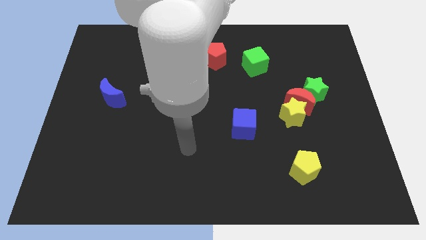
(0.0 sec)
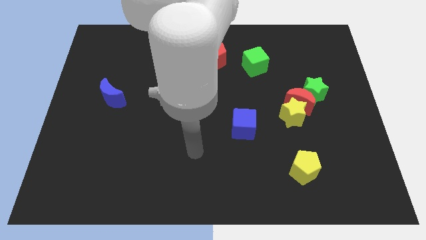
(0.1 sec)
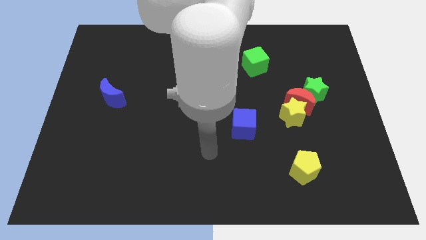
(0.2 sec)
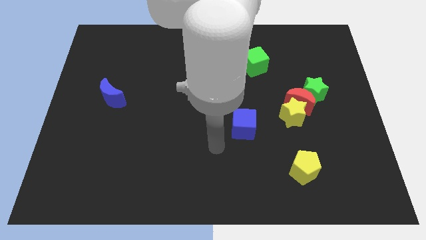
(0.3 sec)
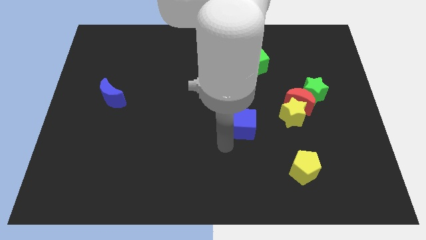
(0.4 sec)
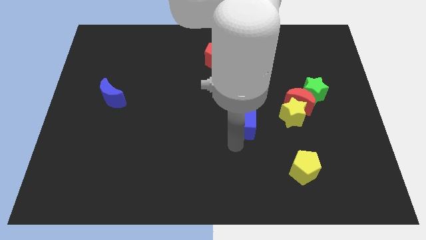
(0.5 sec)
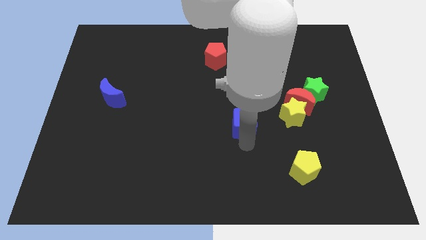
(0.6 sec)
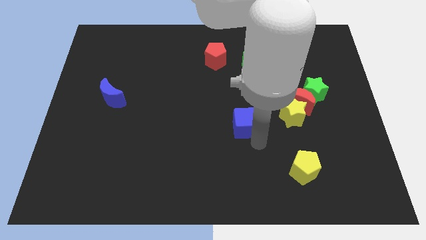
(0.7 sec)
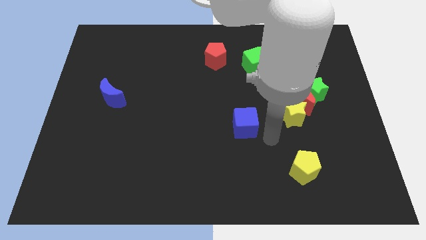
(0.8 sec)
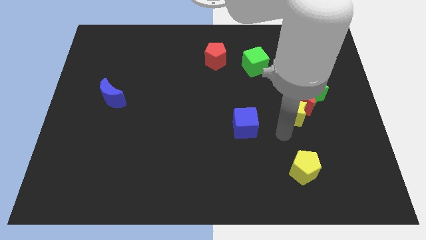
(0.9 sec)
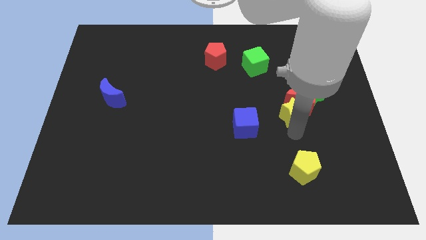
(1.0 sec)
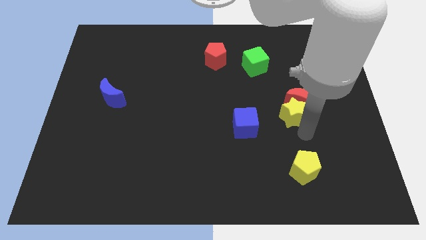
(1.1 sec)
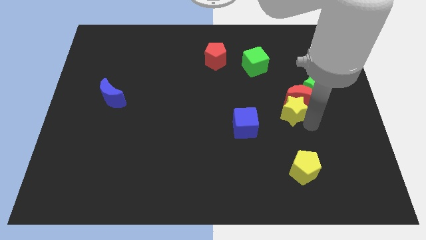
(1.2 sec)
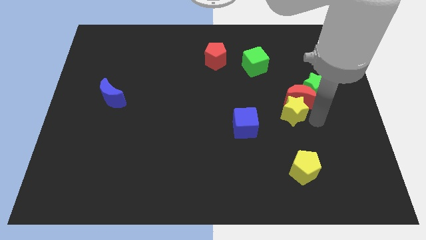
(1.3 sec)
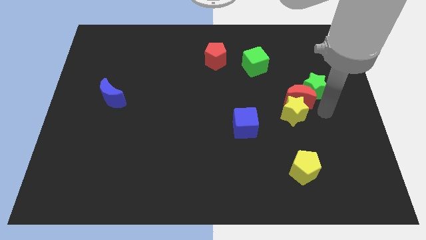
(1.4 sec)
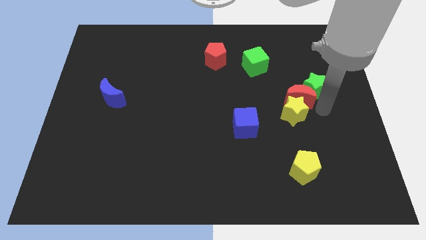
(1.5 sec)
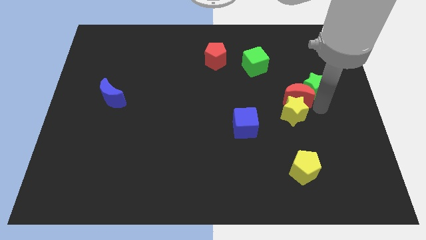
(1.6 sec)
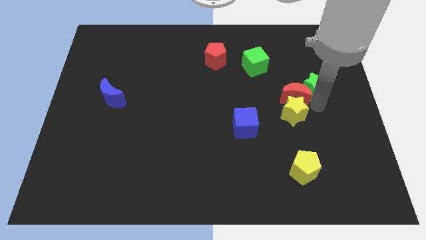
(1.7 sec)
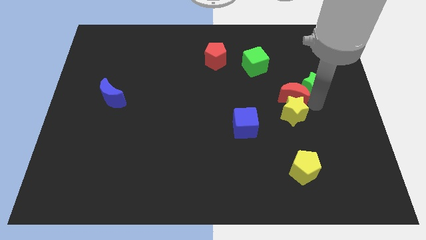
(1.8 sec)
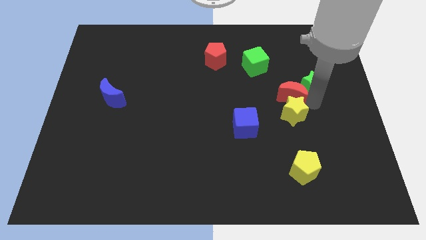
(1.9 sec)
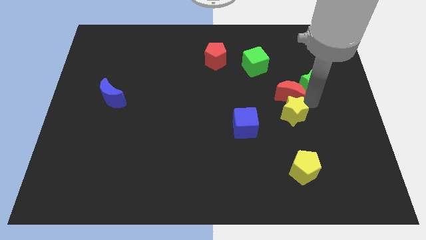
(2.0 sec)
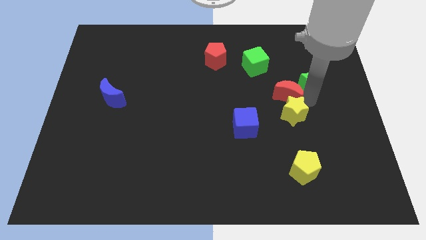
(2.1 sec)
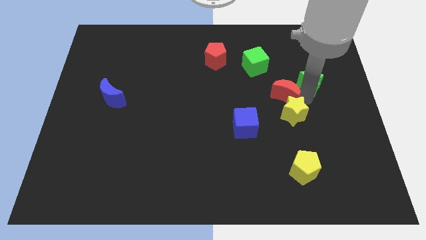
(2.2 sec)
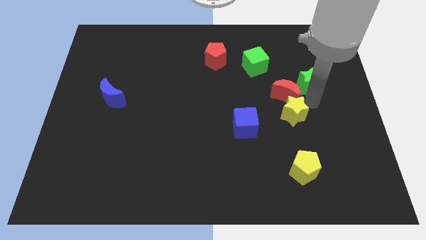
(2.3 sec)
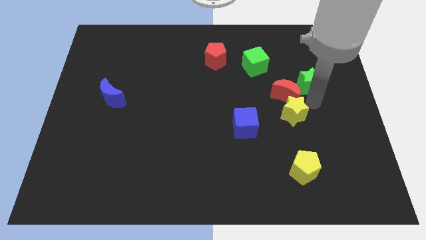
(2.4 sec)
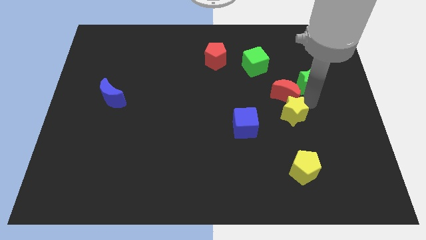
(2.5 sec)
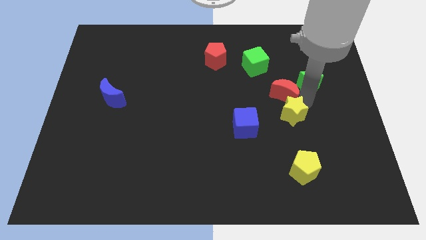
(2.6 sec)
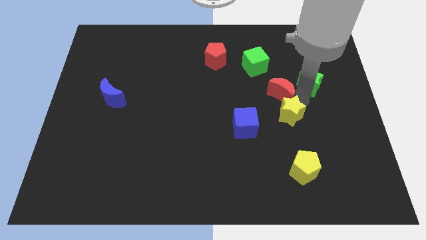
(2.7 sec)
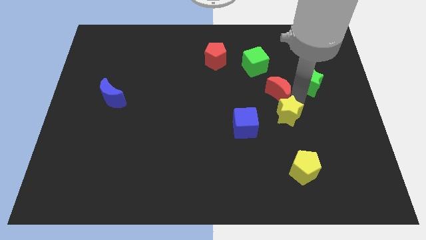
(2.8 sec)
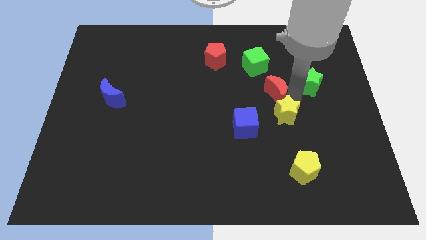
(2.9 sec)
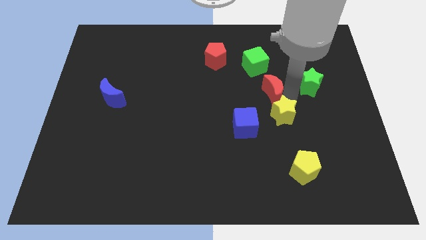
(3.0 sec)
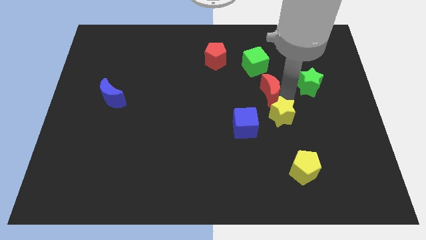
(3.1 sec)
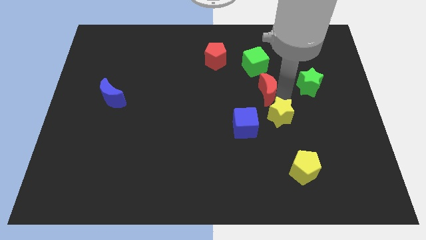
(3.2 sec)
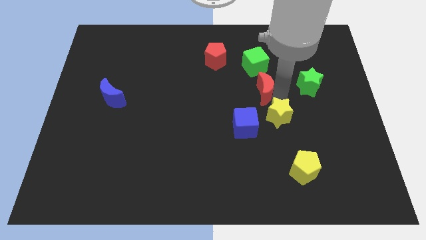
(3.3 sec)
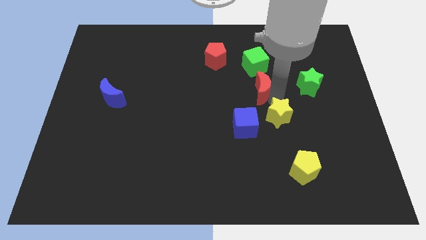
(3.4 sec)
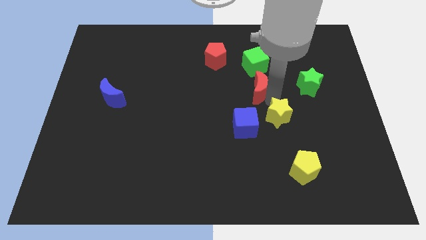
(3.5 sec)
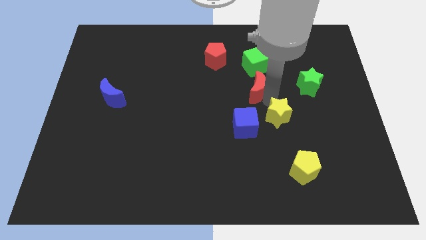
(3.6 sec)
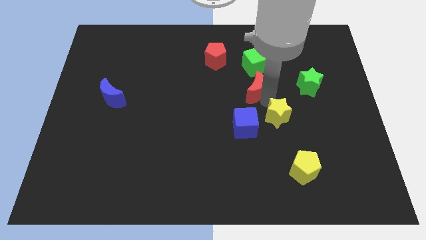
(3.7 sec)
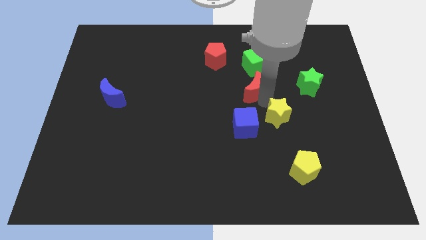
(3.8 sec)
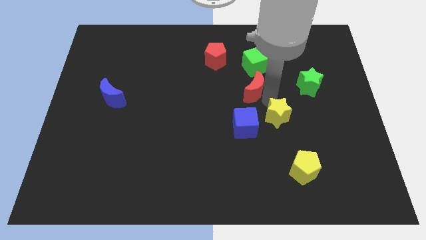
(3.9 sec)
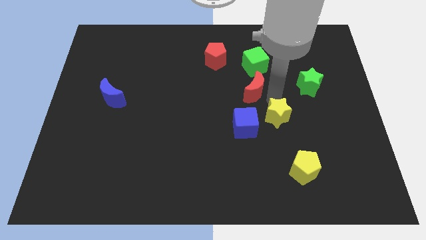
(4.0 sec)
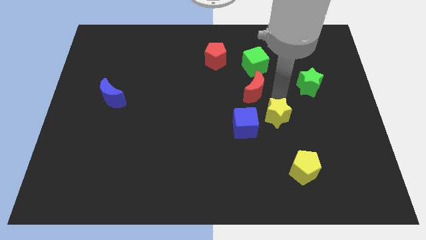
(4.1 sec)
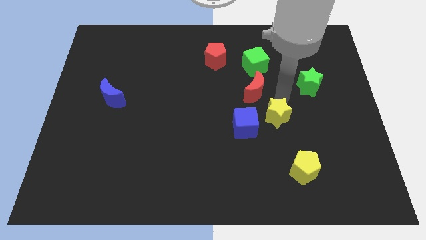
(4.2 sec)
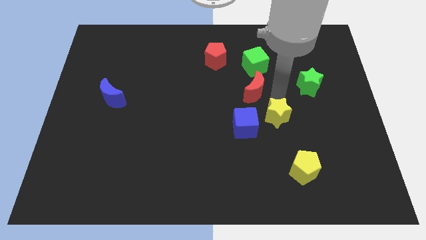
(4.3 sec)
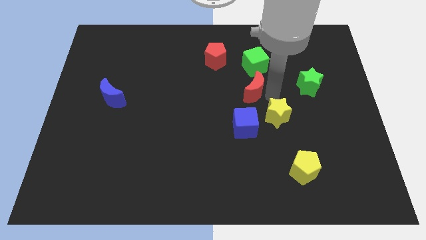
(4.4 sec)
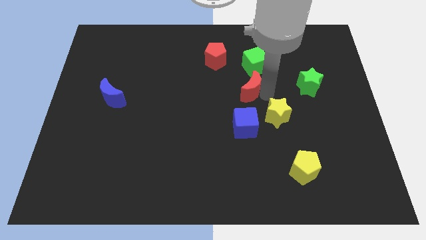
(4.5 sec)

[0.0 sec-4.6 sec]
separate the red moon from the yellow star and green star

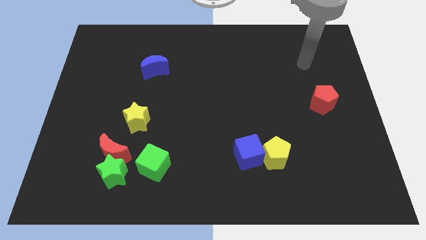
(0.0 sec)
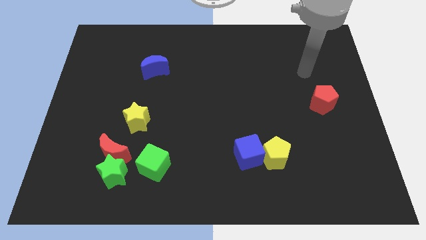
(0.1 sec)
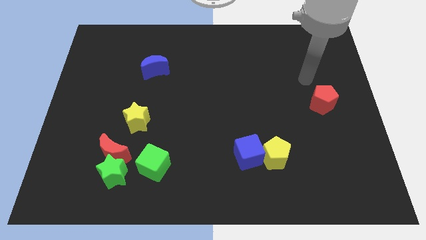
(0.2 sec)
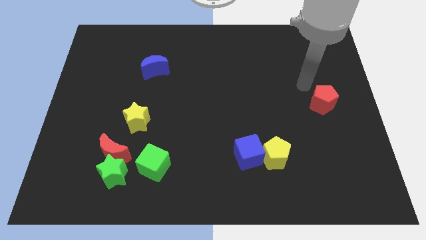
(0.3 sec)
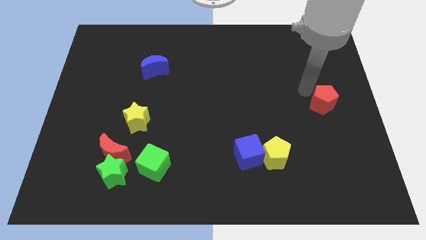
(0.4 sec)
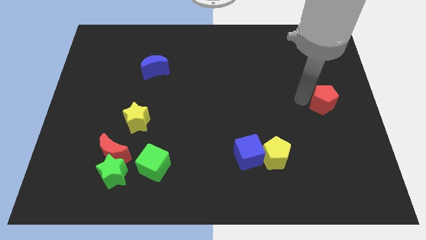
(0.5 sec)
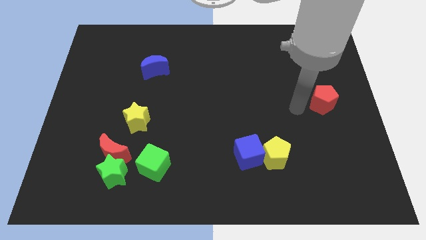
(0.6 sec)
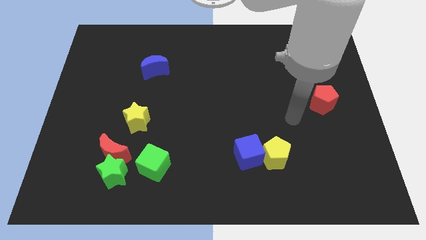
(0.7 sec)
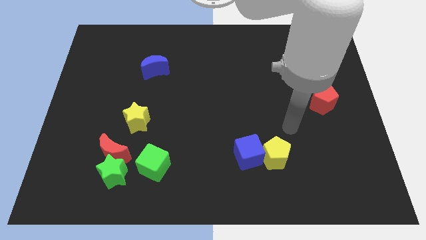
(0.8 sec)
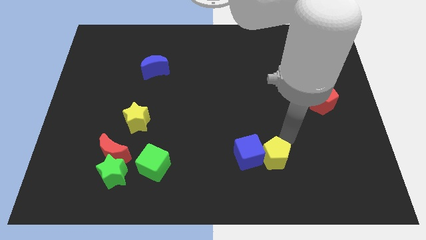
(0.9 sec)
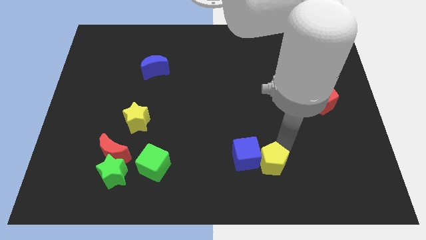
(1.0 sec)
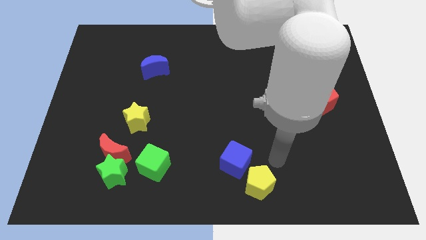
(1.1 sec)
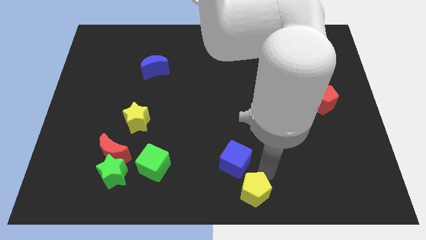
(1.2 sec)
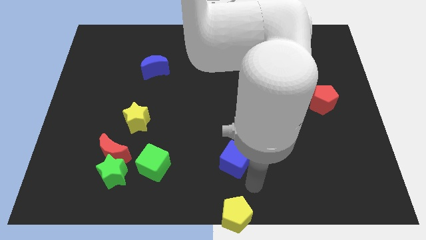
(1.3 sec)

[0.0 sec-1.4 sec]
pull the blue cube apart from the yellow pentagon

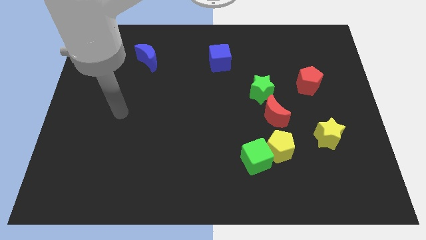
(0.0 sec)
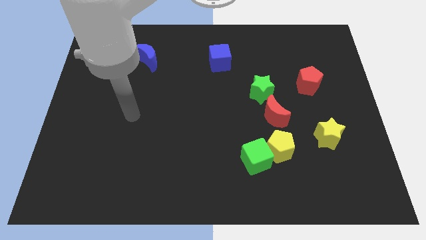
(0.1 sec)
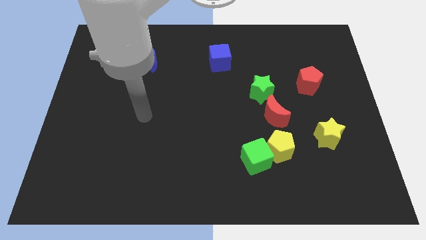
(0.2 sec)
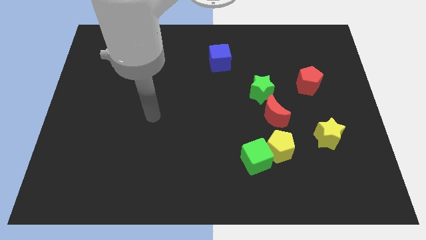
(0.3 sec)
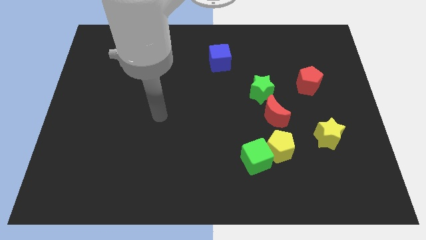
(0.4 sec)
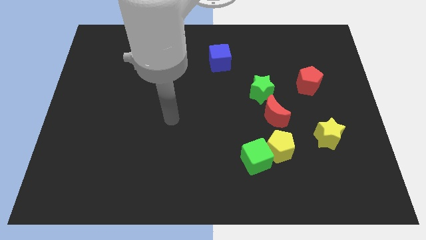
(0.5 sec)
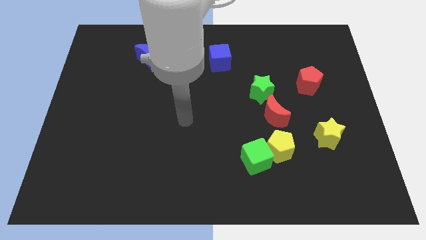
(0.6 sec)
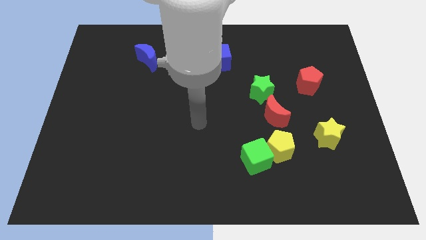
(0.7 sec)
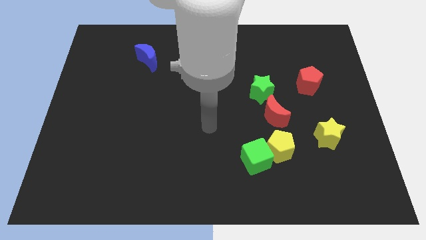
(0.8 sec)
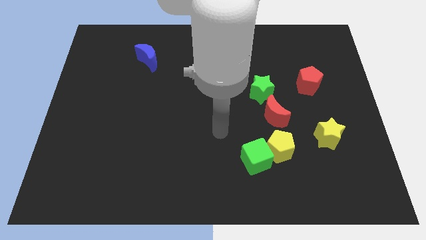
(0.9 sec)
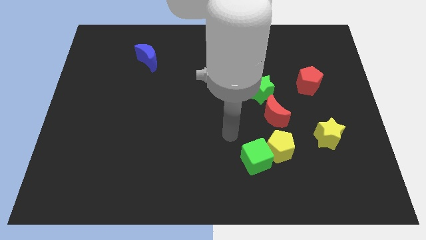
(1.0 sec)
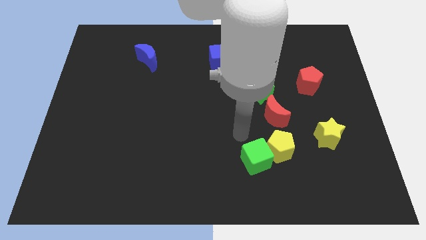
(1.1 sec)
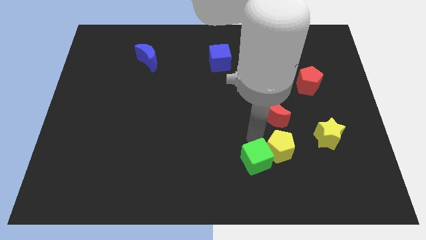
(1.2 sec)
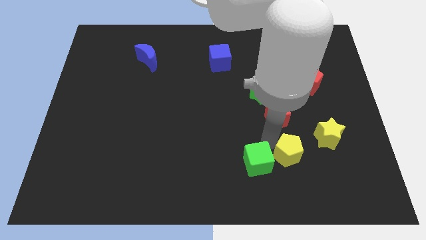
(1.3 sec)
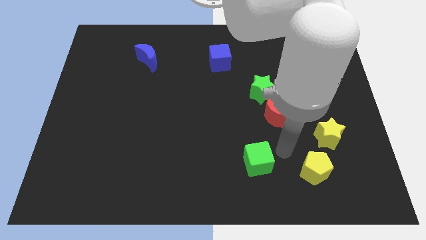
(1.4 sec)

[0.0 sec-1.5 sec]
pull the green cube apart from the yellow pentagon

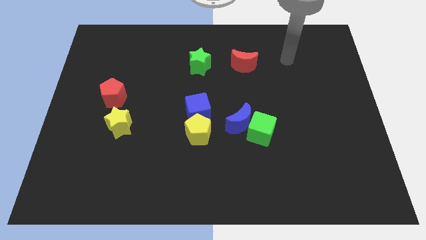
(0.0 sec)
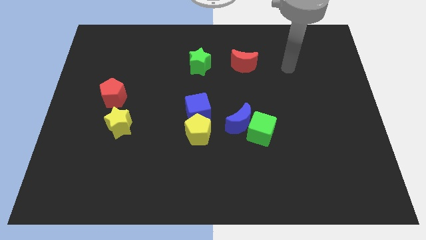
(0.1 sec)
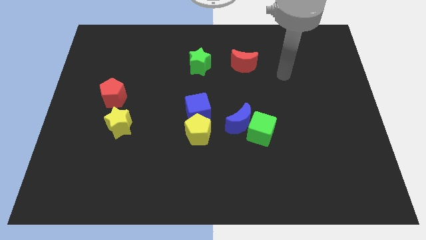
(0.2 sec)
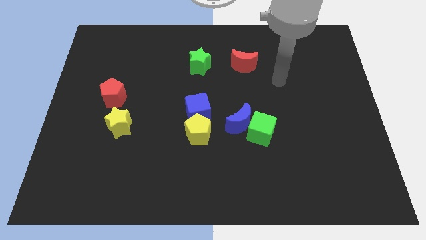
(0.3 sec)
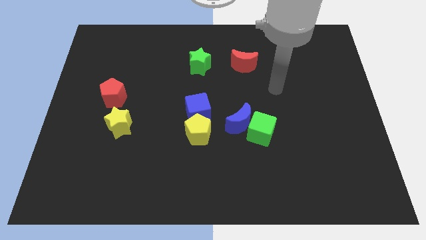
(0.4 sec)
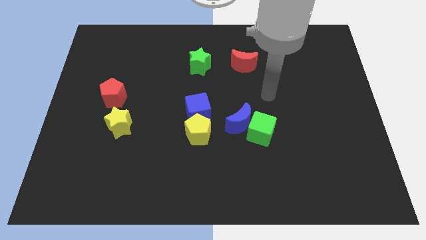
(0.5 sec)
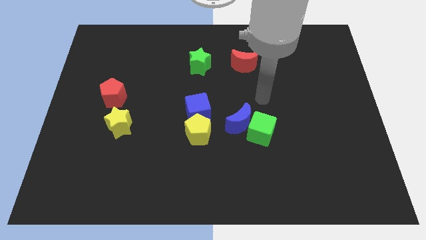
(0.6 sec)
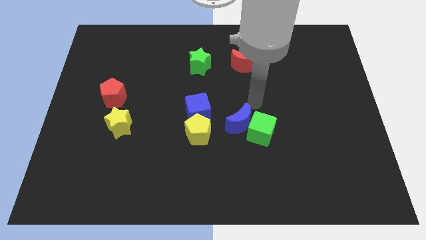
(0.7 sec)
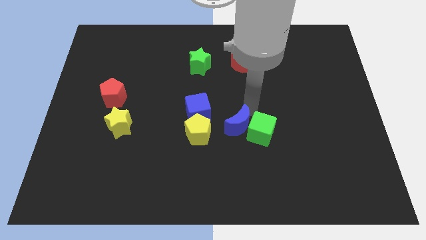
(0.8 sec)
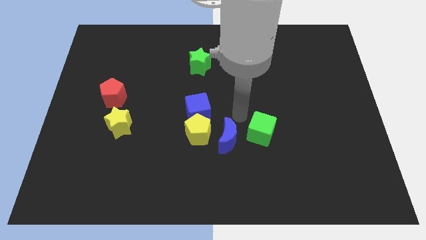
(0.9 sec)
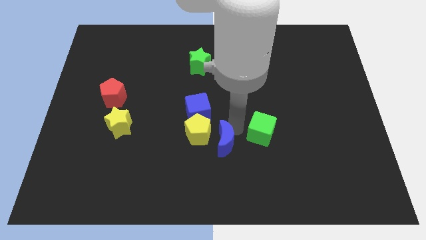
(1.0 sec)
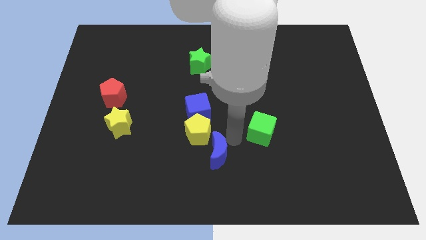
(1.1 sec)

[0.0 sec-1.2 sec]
separate the green cube from the blue moon

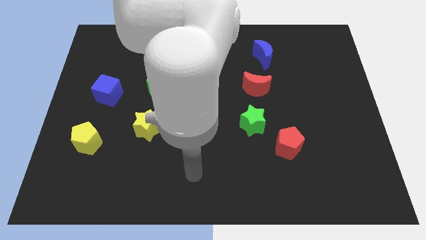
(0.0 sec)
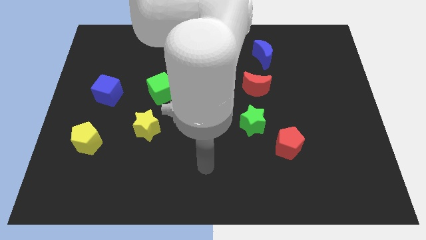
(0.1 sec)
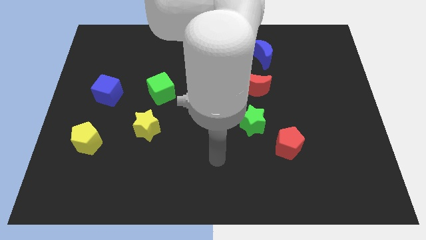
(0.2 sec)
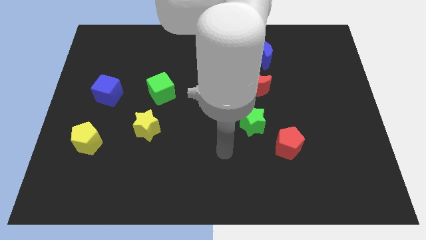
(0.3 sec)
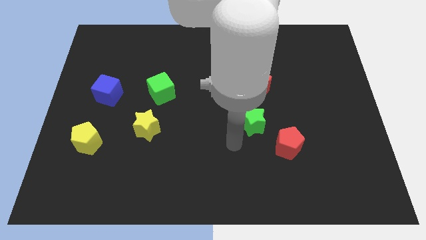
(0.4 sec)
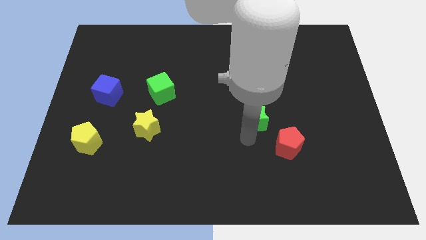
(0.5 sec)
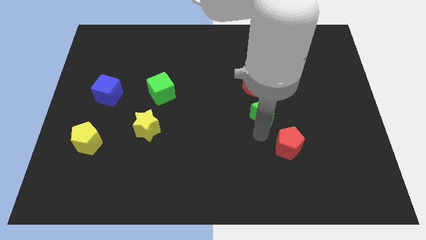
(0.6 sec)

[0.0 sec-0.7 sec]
move the red pentagon away from the green star
